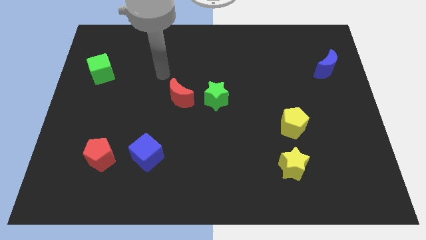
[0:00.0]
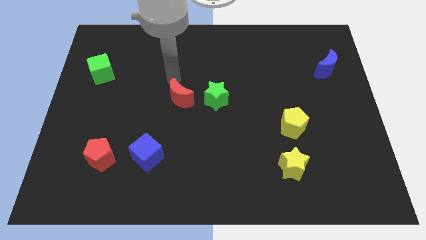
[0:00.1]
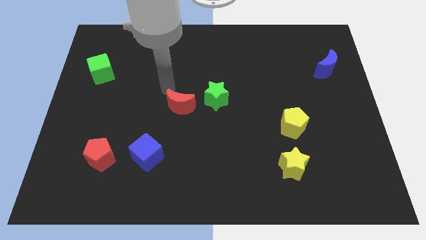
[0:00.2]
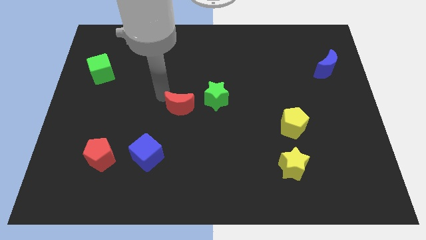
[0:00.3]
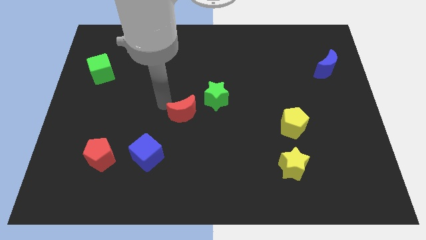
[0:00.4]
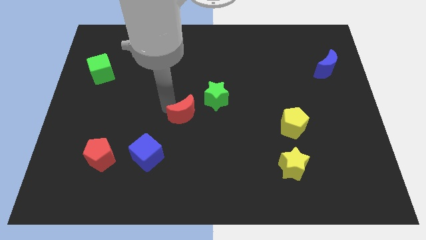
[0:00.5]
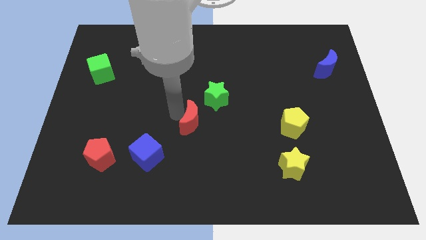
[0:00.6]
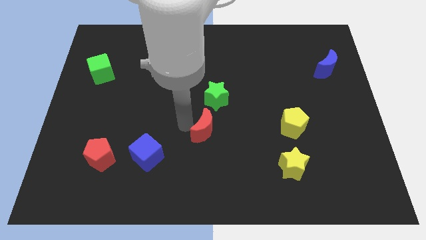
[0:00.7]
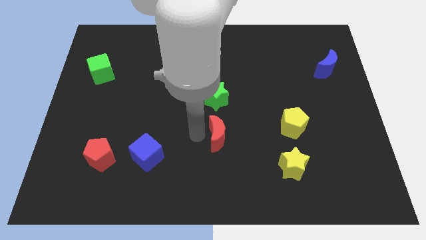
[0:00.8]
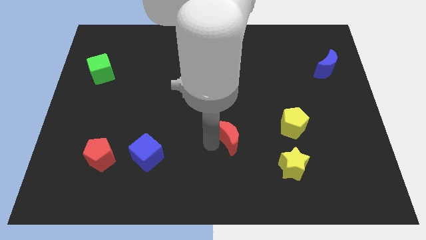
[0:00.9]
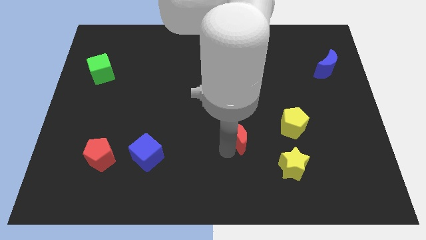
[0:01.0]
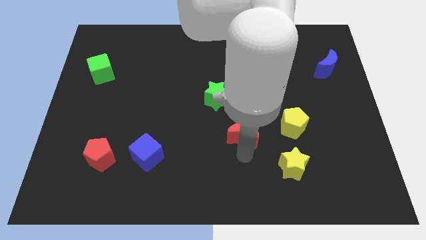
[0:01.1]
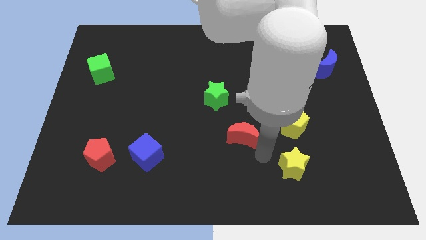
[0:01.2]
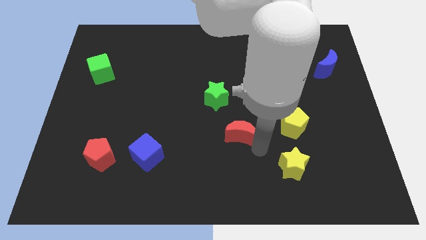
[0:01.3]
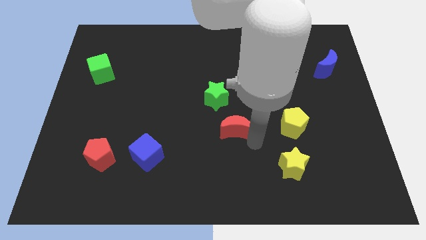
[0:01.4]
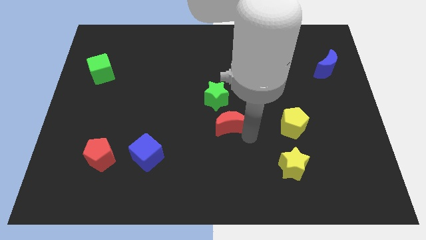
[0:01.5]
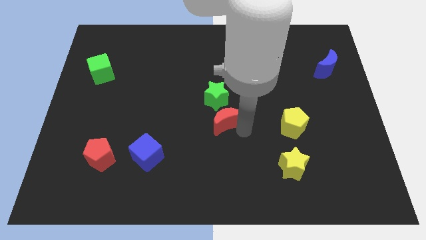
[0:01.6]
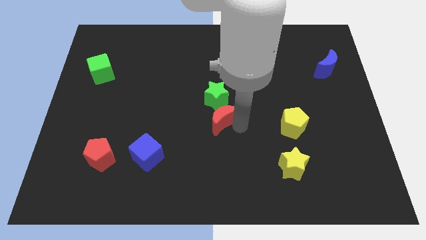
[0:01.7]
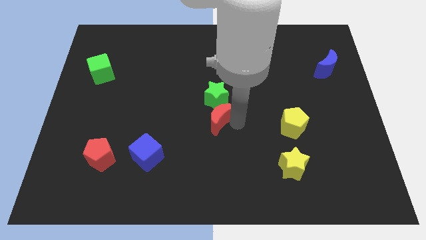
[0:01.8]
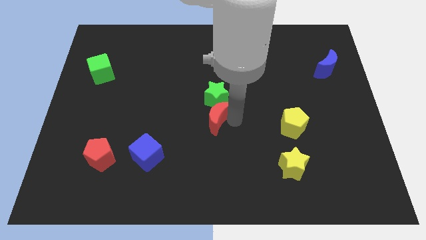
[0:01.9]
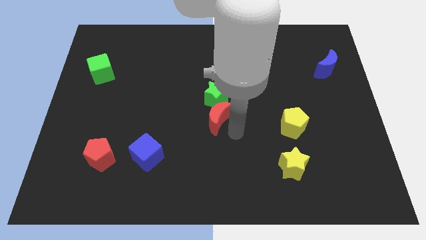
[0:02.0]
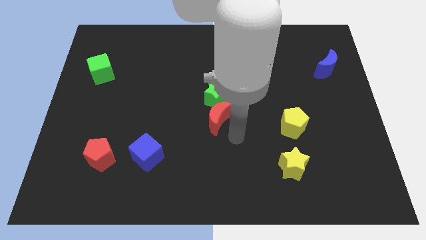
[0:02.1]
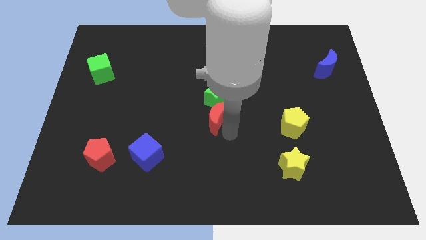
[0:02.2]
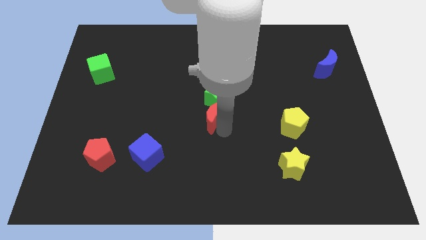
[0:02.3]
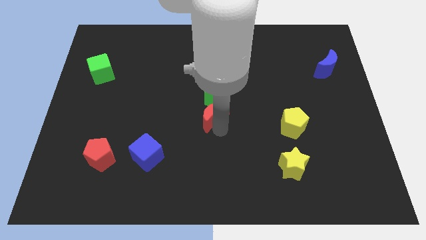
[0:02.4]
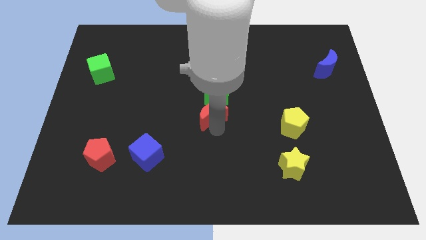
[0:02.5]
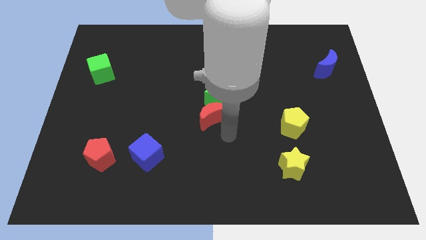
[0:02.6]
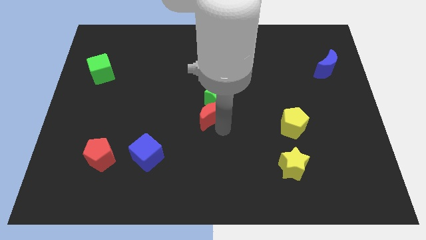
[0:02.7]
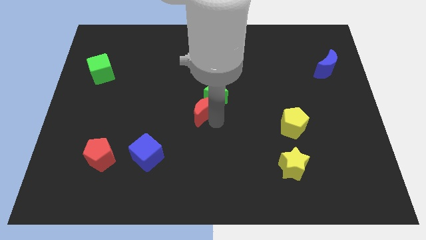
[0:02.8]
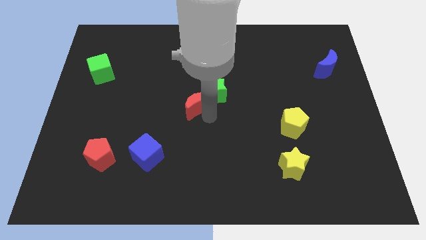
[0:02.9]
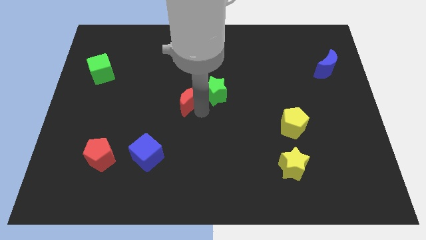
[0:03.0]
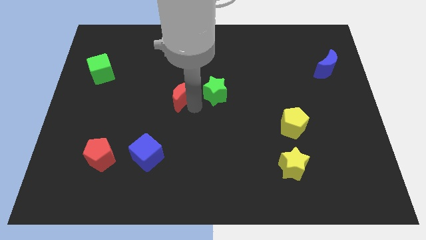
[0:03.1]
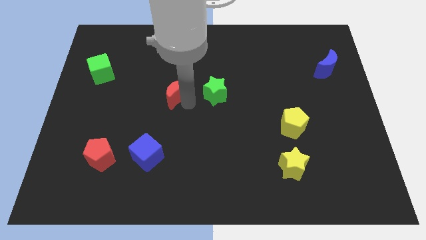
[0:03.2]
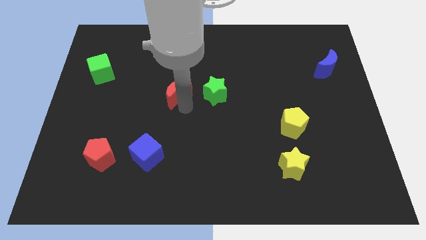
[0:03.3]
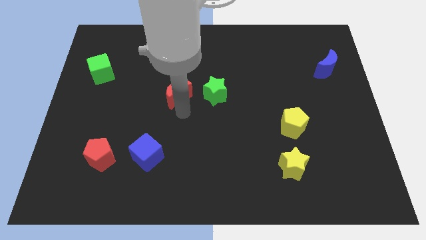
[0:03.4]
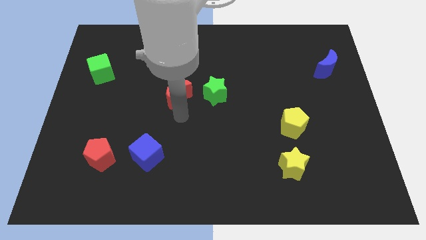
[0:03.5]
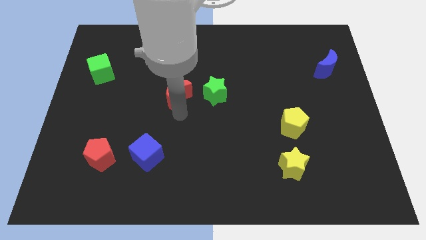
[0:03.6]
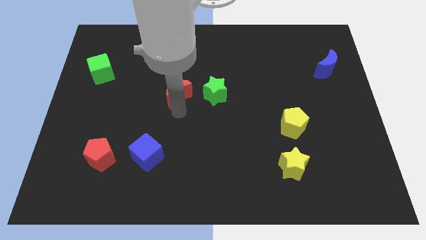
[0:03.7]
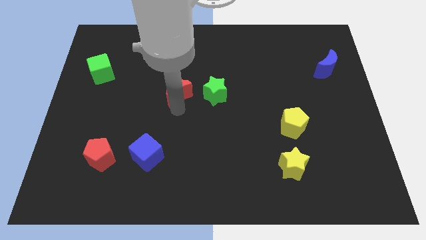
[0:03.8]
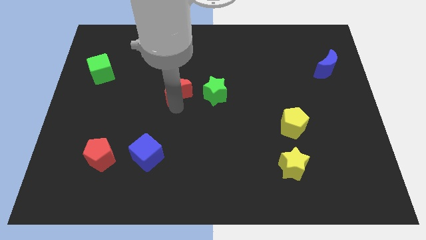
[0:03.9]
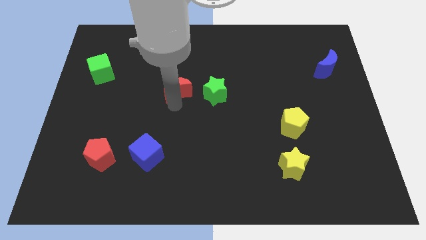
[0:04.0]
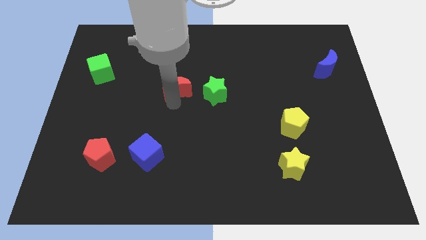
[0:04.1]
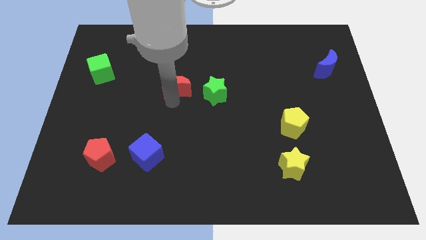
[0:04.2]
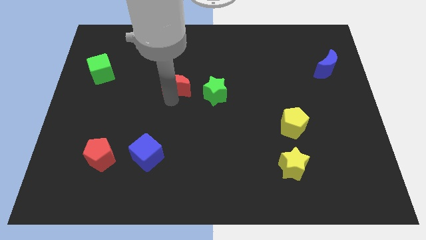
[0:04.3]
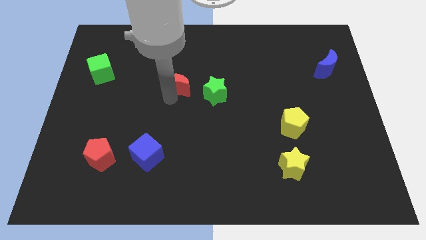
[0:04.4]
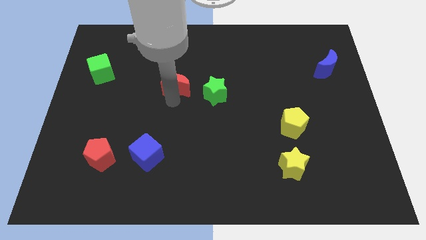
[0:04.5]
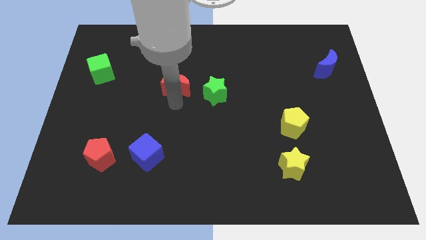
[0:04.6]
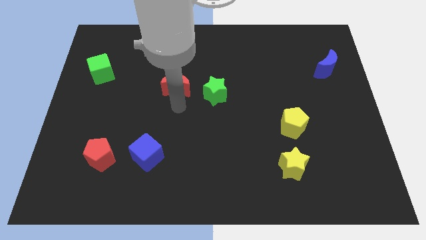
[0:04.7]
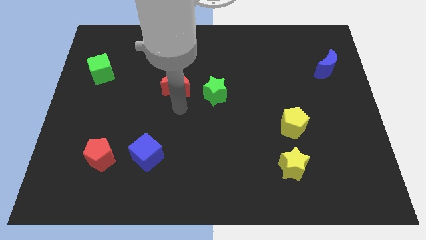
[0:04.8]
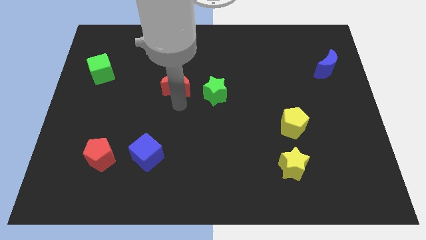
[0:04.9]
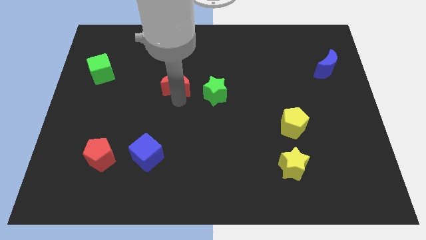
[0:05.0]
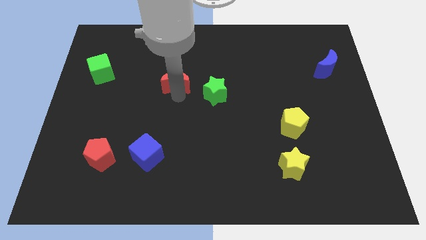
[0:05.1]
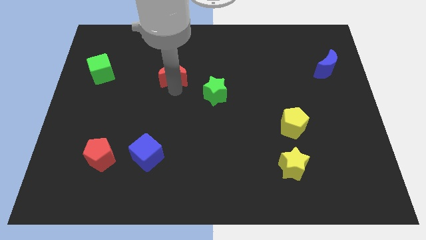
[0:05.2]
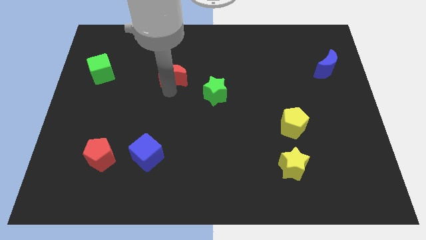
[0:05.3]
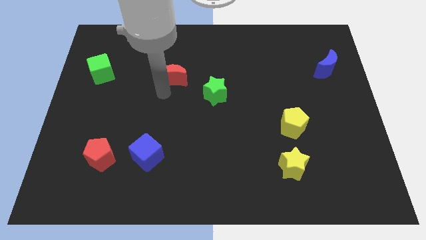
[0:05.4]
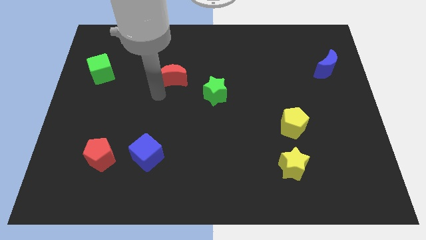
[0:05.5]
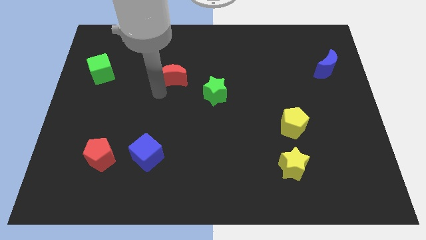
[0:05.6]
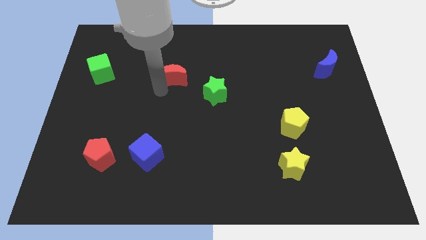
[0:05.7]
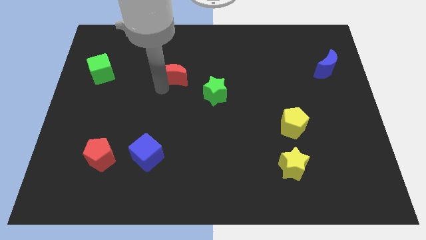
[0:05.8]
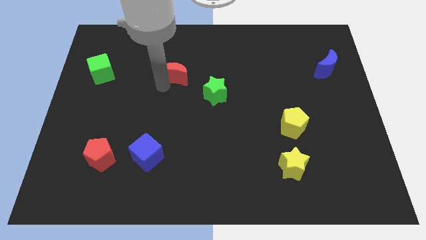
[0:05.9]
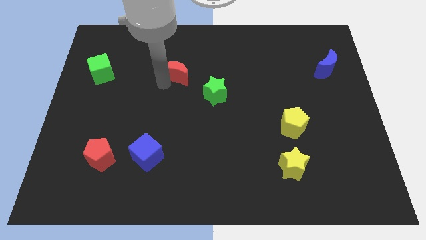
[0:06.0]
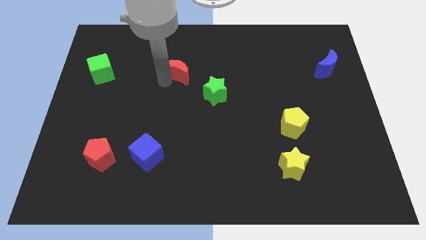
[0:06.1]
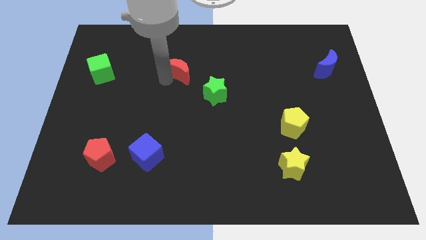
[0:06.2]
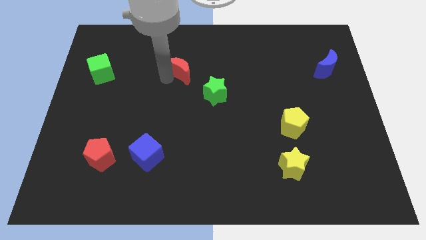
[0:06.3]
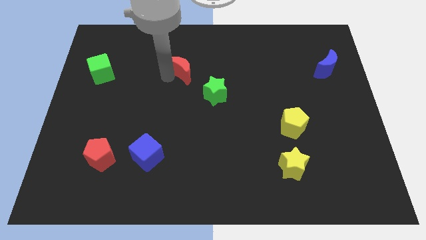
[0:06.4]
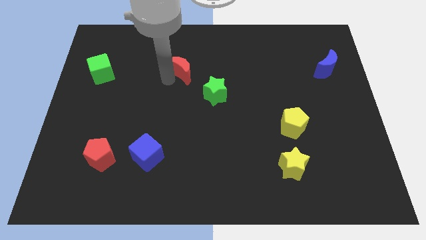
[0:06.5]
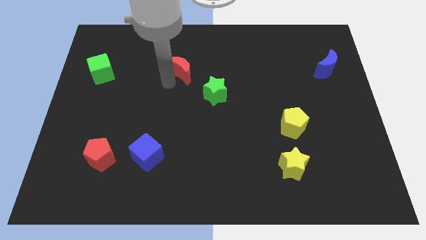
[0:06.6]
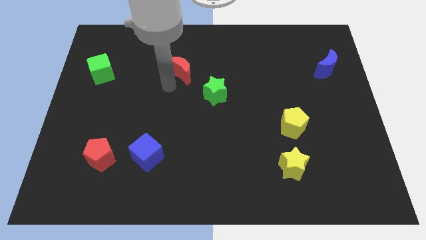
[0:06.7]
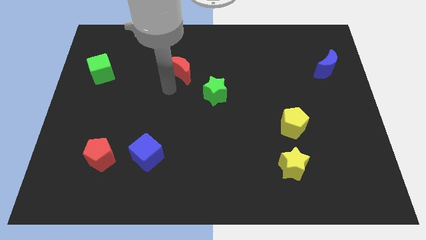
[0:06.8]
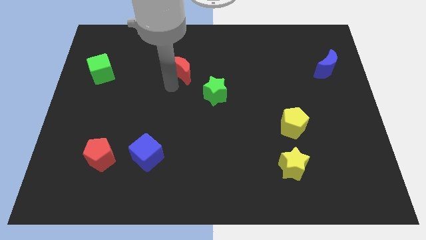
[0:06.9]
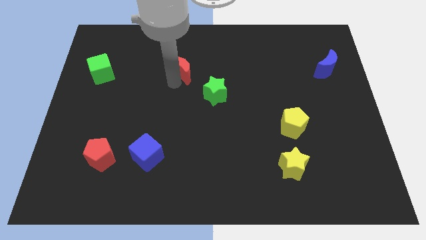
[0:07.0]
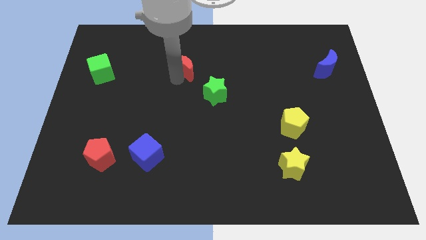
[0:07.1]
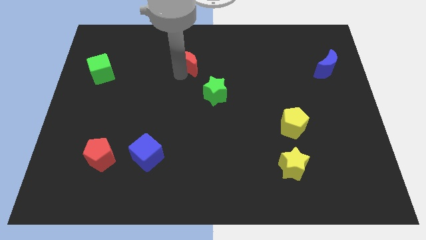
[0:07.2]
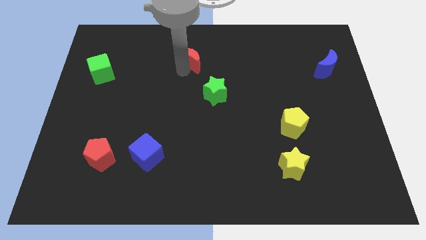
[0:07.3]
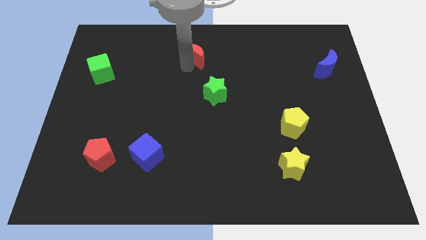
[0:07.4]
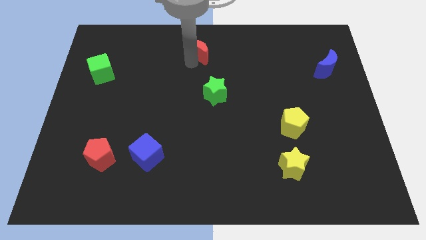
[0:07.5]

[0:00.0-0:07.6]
push the red moon to the towards your base

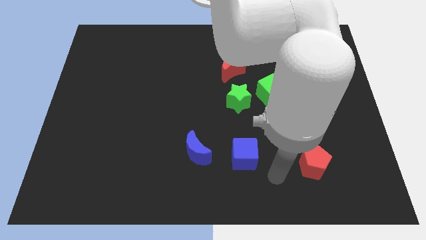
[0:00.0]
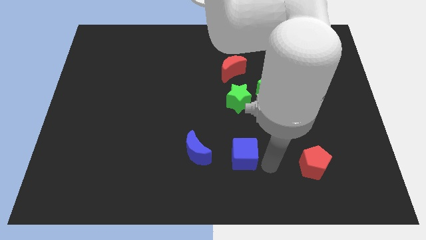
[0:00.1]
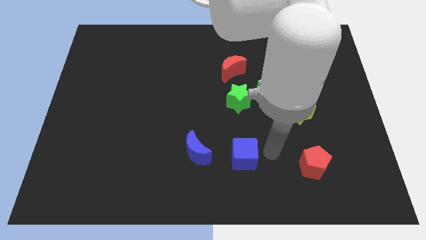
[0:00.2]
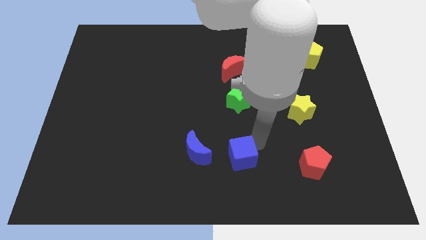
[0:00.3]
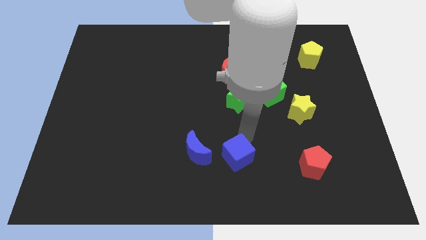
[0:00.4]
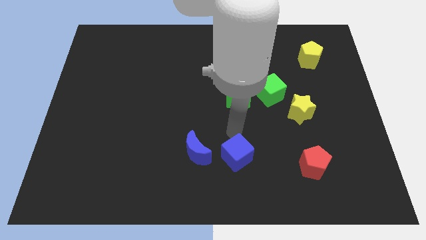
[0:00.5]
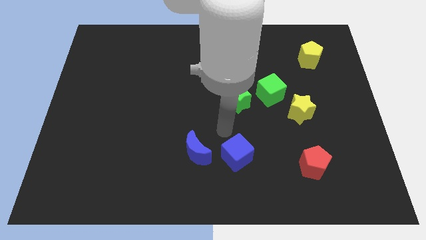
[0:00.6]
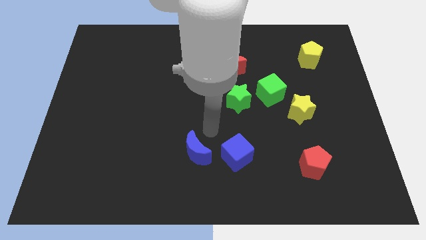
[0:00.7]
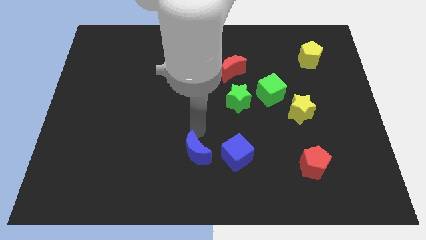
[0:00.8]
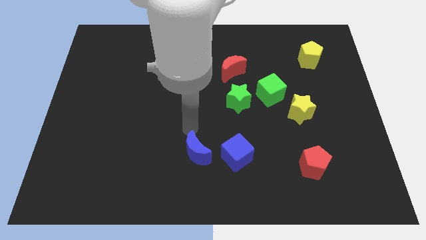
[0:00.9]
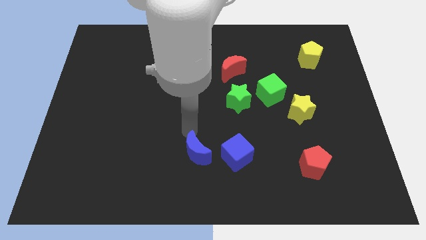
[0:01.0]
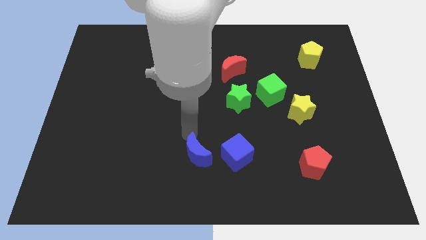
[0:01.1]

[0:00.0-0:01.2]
put the blue moon to the bottom side
